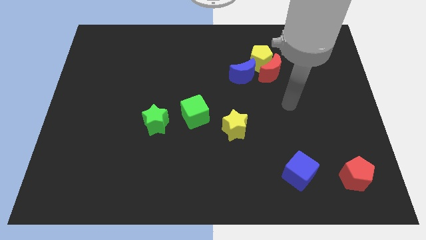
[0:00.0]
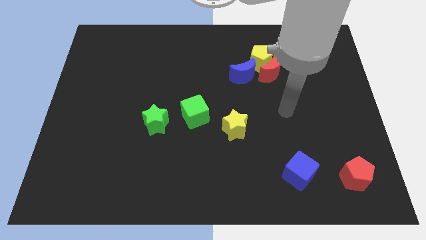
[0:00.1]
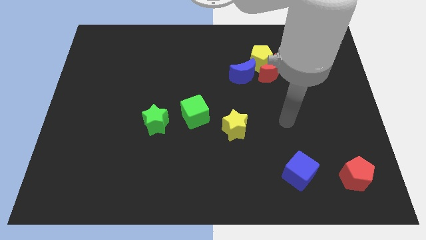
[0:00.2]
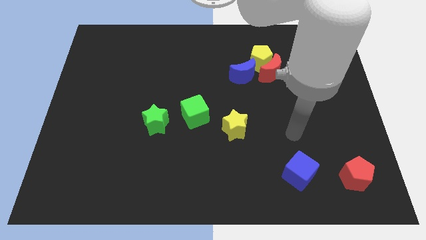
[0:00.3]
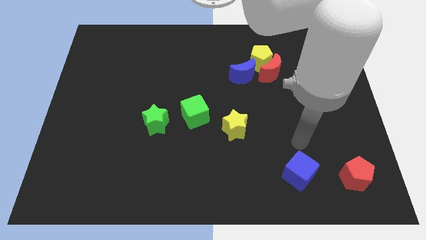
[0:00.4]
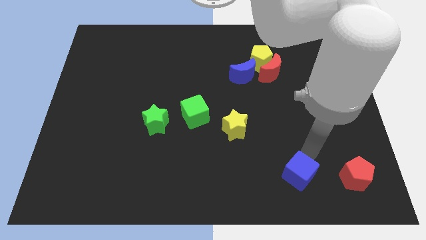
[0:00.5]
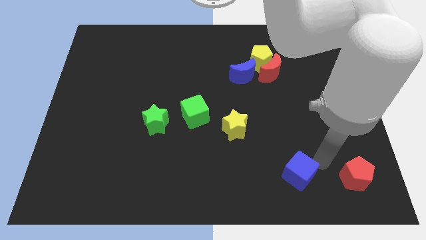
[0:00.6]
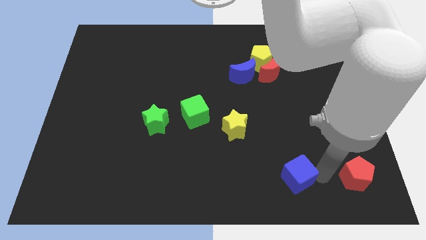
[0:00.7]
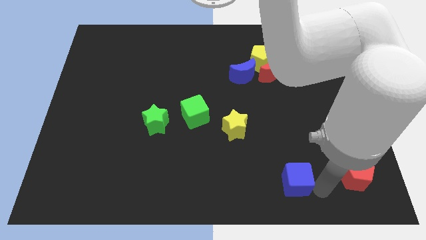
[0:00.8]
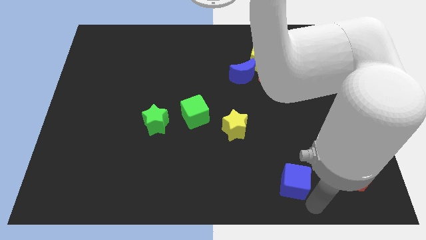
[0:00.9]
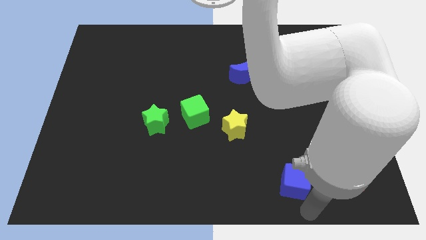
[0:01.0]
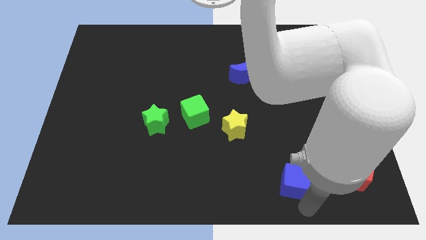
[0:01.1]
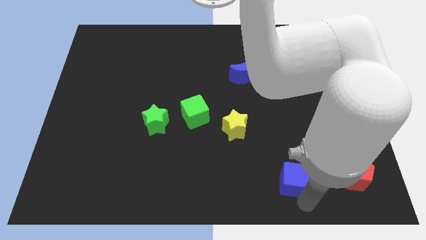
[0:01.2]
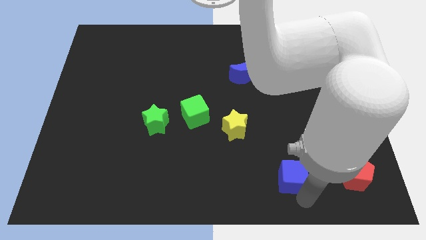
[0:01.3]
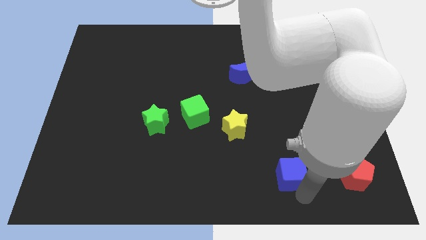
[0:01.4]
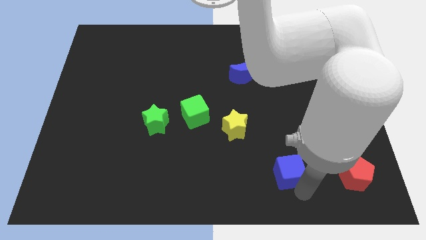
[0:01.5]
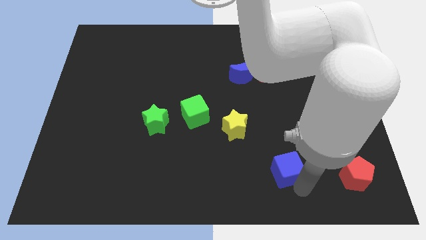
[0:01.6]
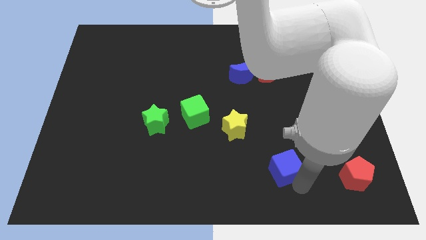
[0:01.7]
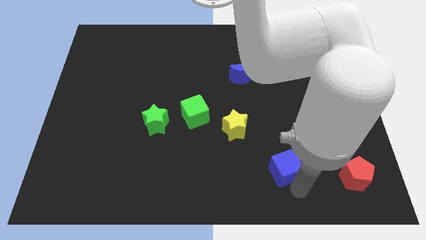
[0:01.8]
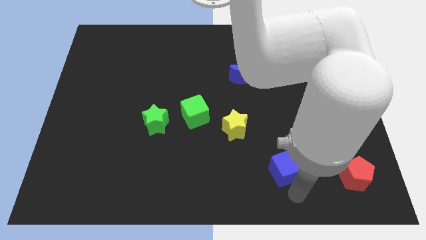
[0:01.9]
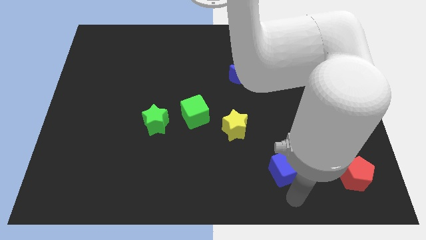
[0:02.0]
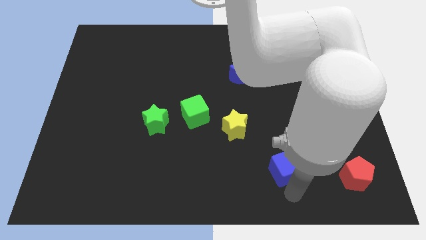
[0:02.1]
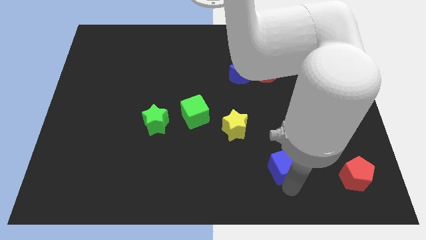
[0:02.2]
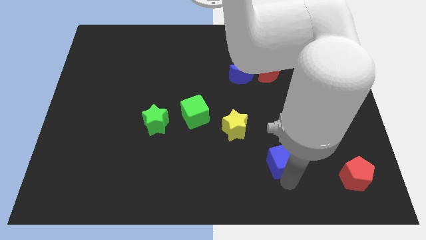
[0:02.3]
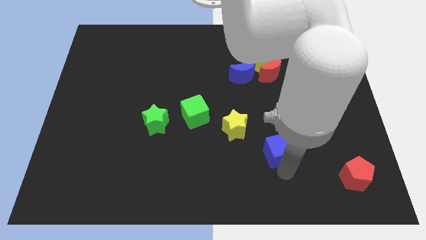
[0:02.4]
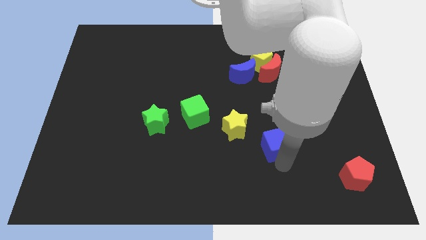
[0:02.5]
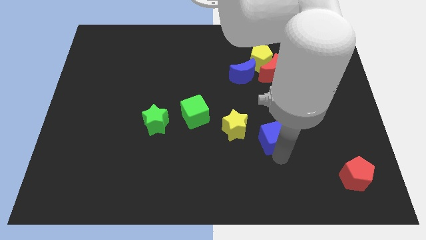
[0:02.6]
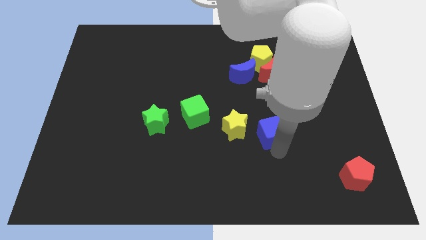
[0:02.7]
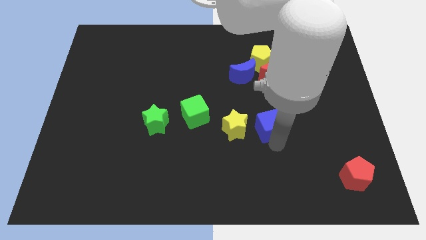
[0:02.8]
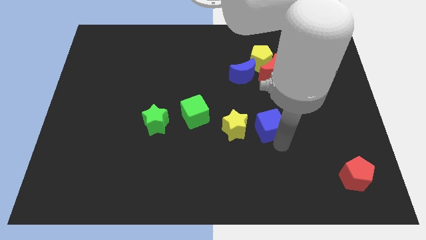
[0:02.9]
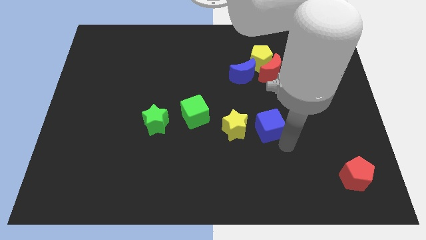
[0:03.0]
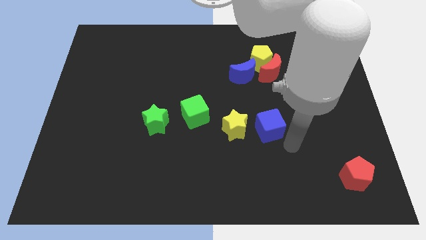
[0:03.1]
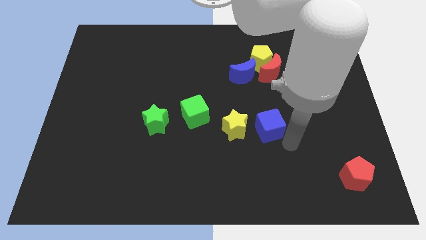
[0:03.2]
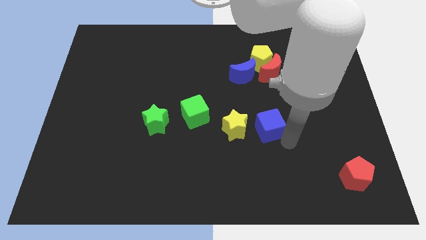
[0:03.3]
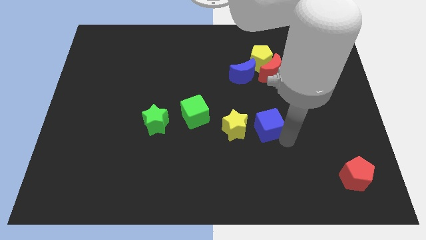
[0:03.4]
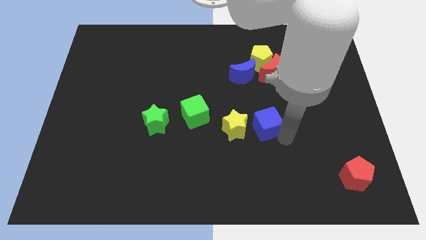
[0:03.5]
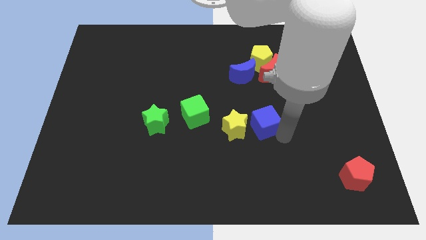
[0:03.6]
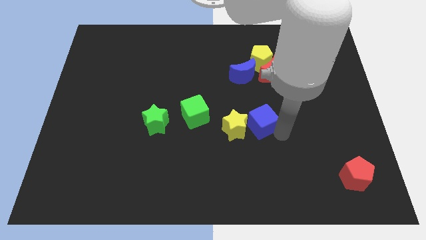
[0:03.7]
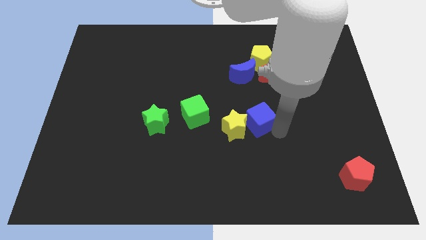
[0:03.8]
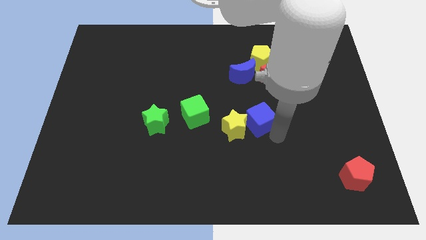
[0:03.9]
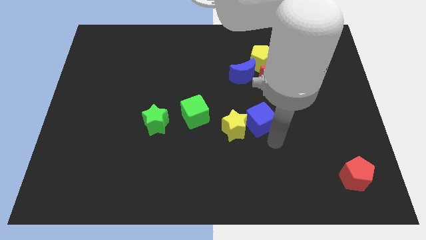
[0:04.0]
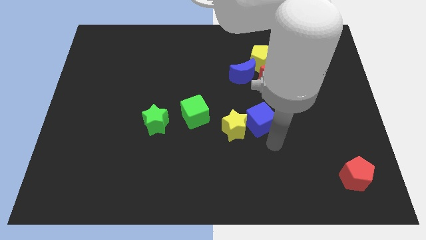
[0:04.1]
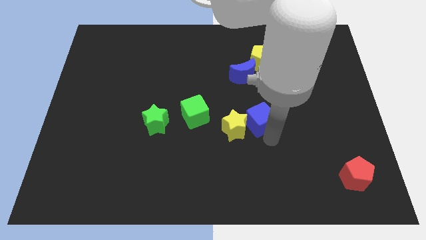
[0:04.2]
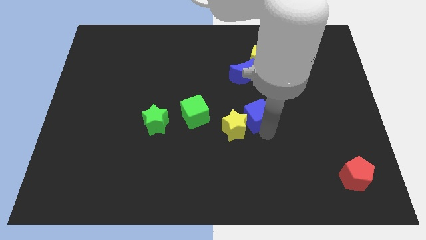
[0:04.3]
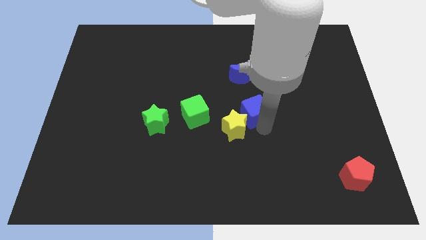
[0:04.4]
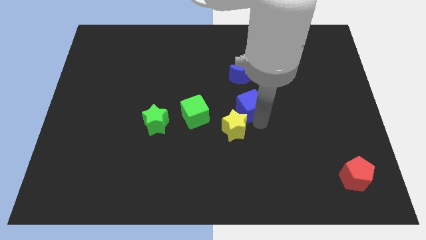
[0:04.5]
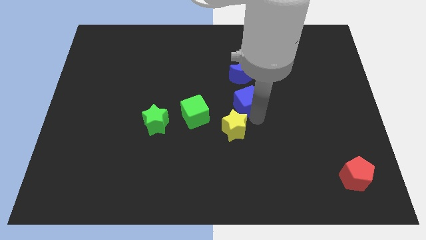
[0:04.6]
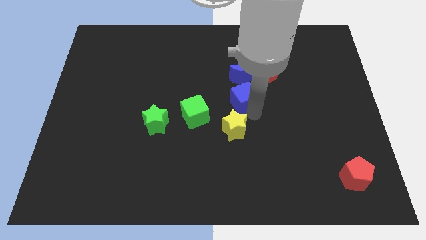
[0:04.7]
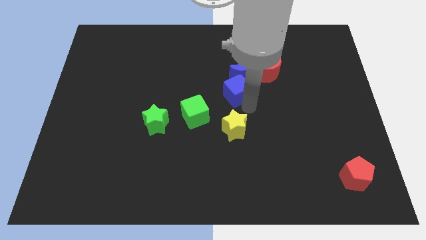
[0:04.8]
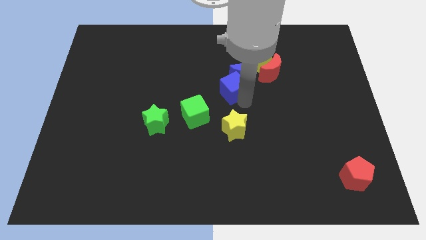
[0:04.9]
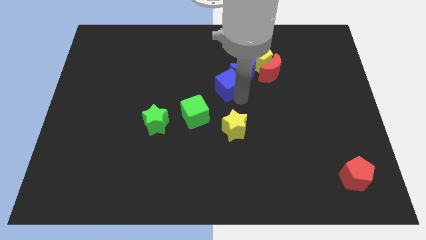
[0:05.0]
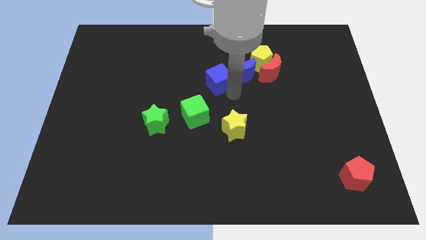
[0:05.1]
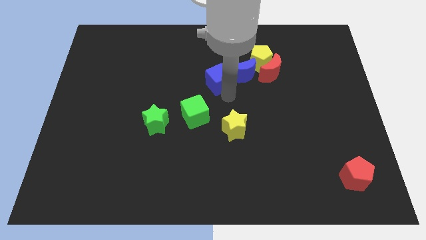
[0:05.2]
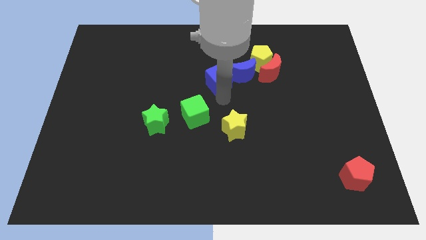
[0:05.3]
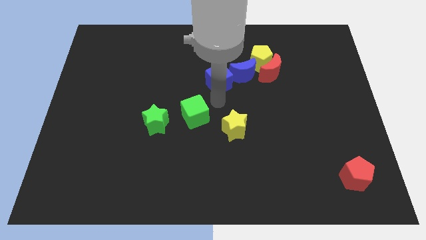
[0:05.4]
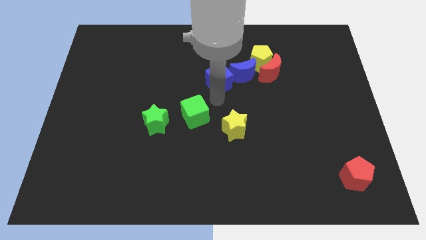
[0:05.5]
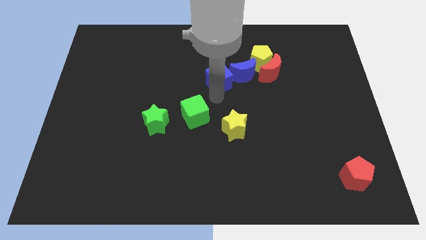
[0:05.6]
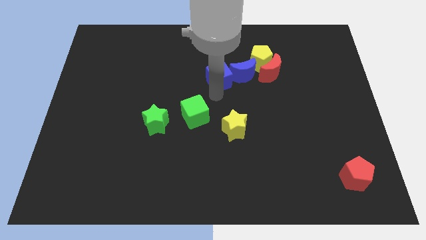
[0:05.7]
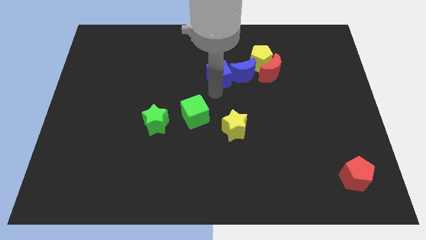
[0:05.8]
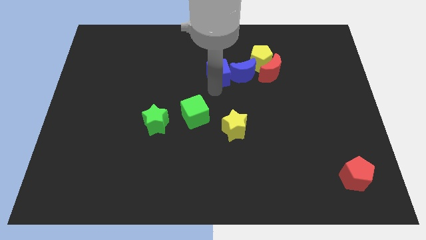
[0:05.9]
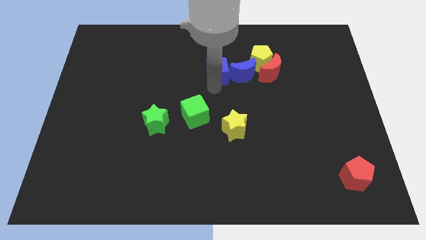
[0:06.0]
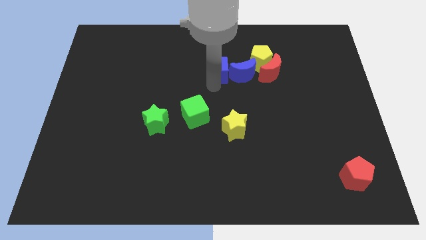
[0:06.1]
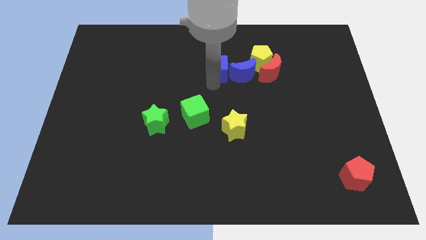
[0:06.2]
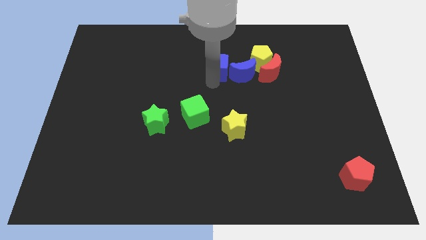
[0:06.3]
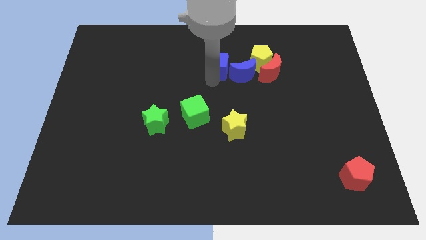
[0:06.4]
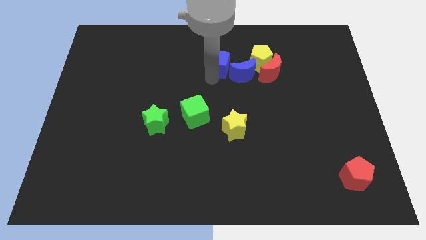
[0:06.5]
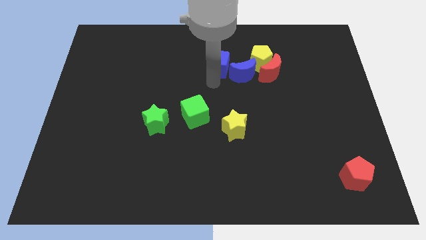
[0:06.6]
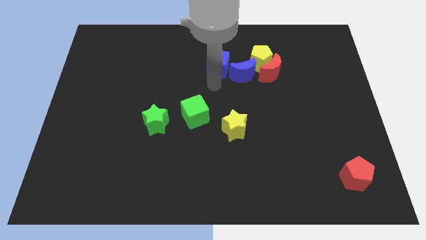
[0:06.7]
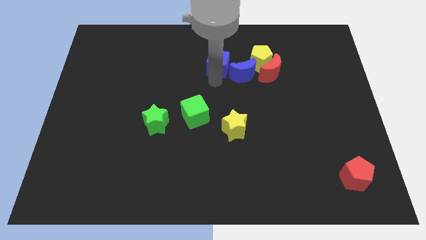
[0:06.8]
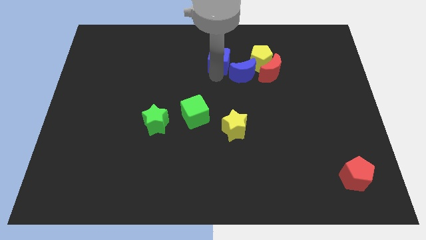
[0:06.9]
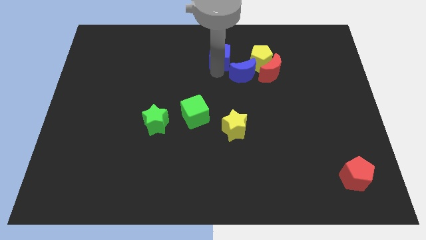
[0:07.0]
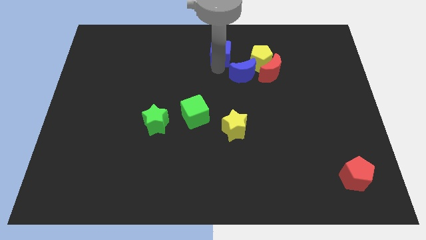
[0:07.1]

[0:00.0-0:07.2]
move the blue cube to the top
